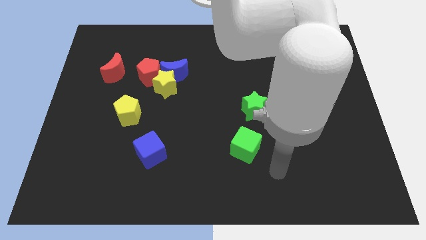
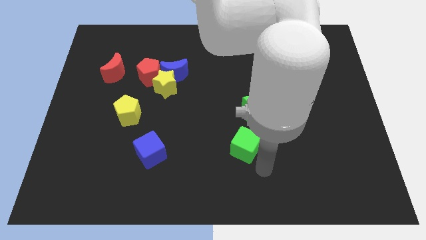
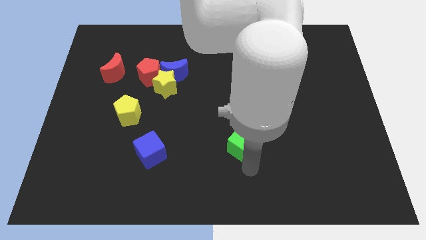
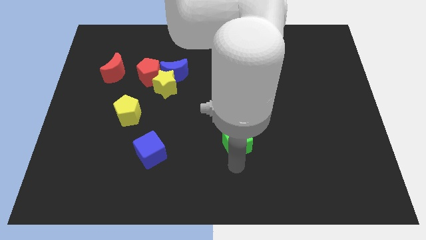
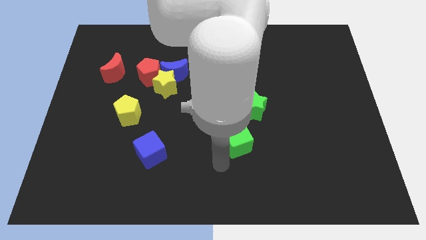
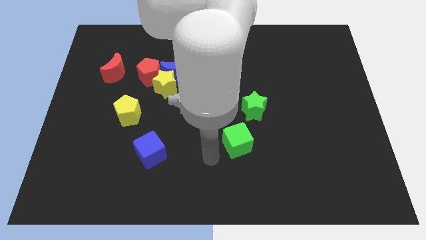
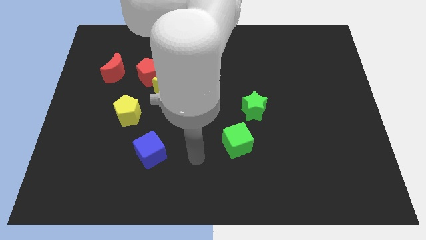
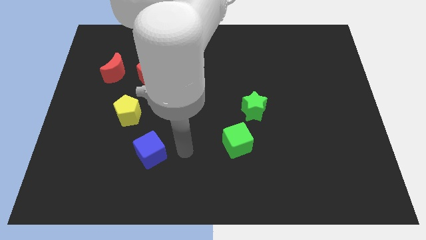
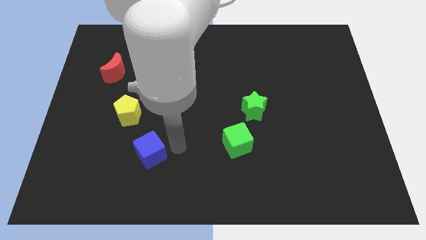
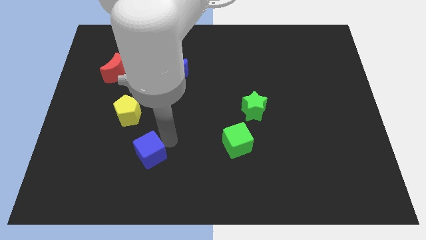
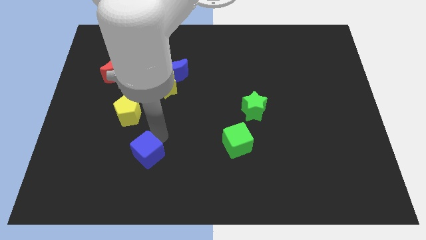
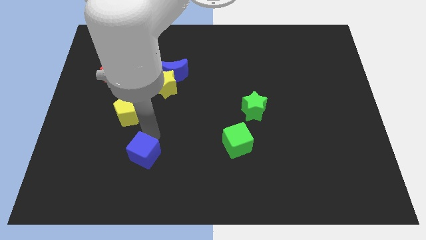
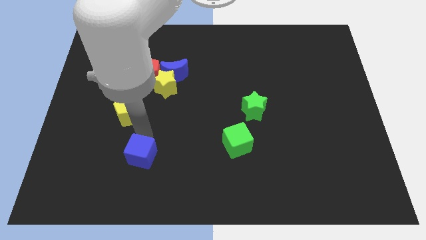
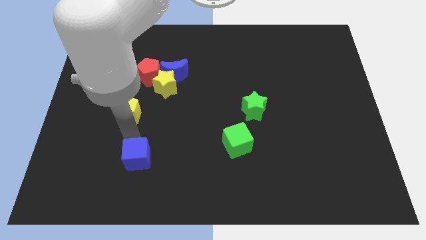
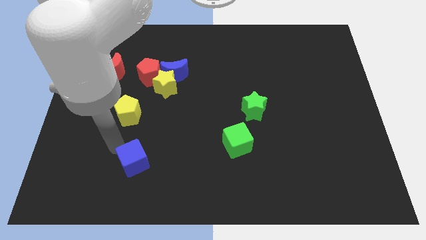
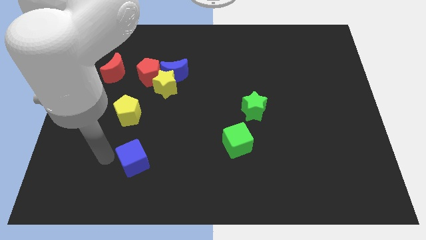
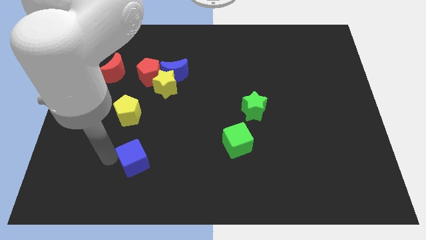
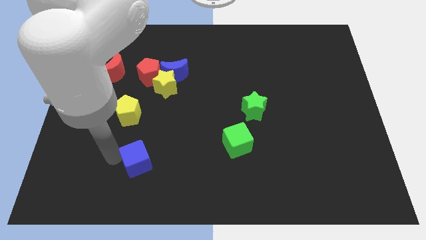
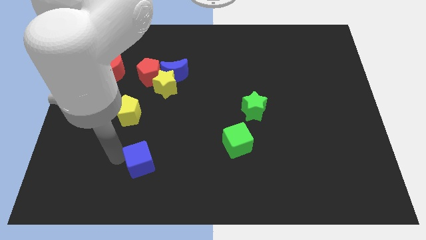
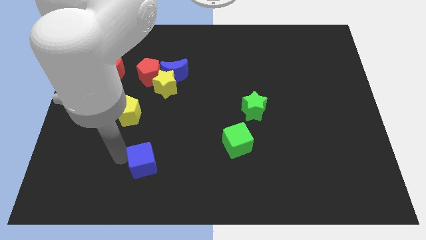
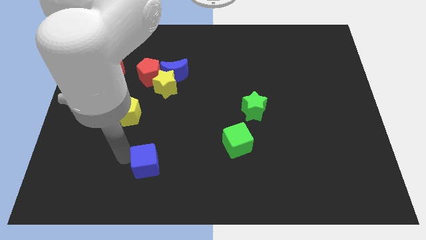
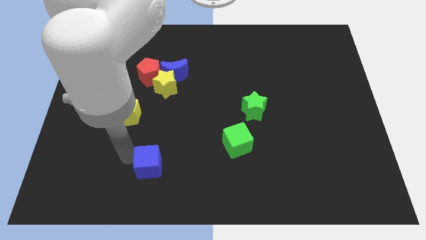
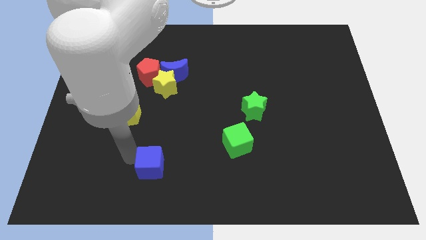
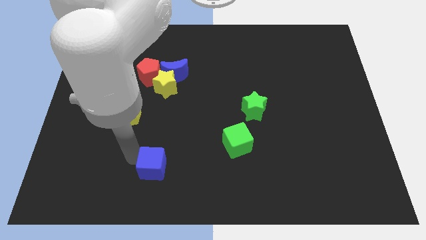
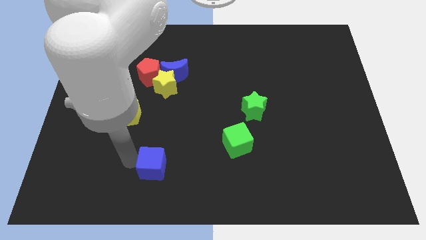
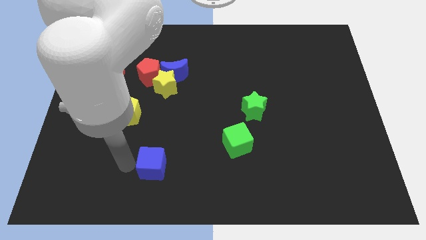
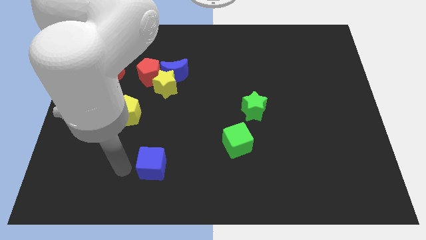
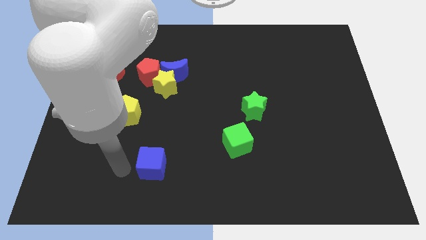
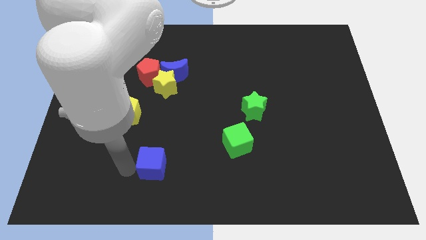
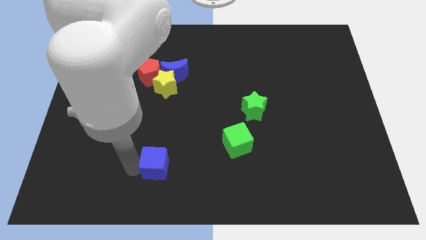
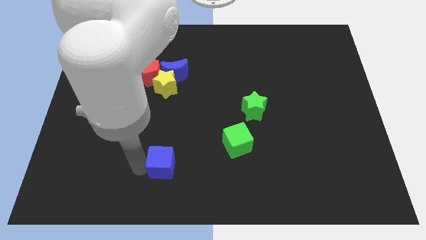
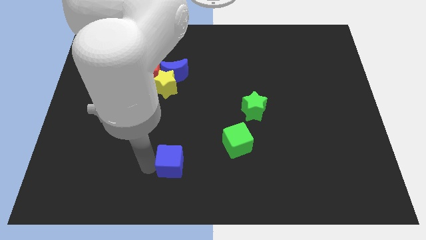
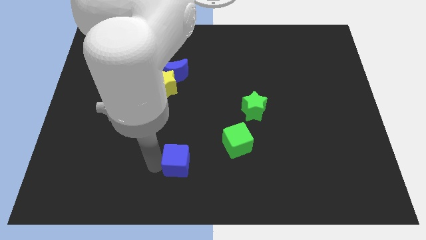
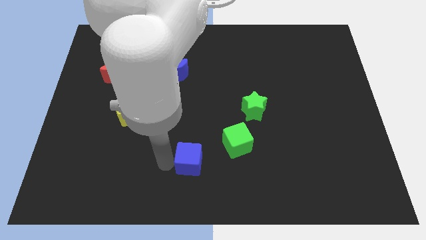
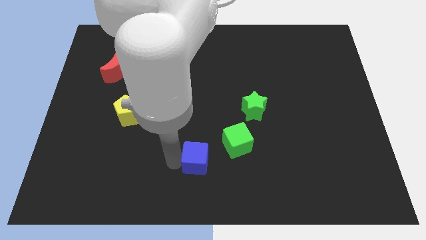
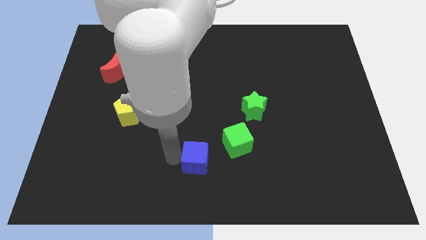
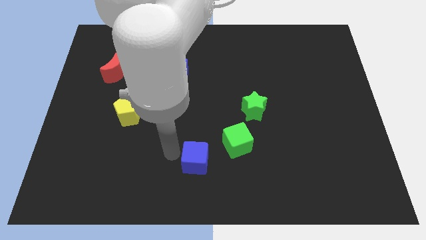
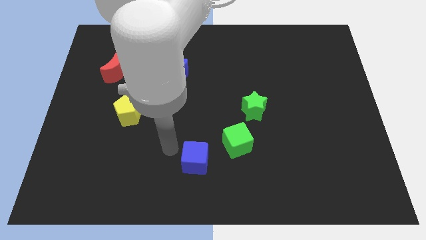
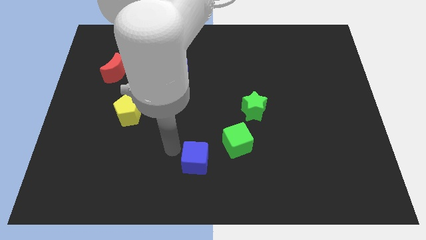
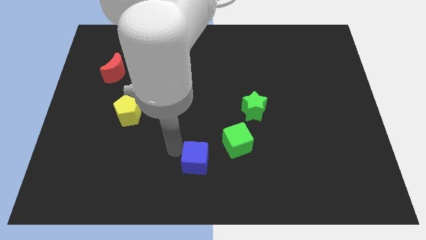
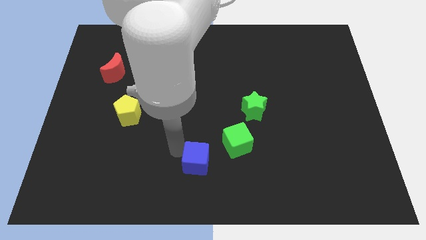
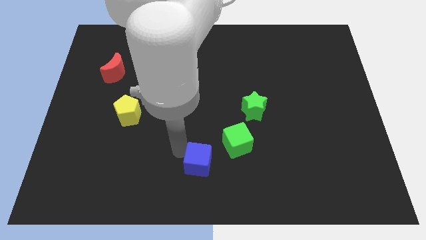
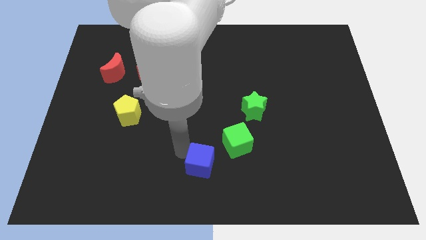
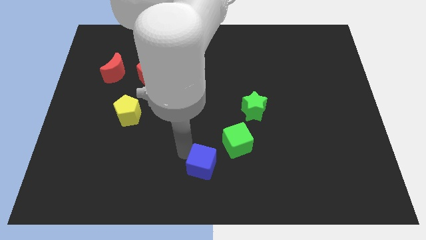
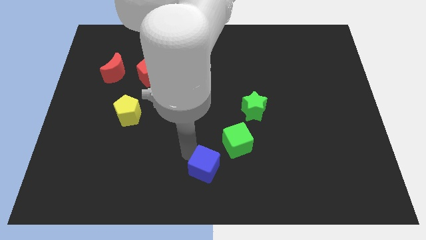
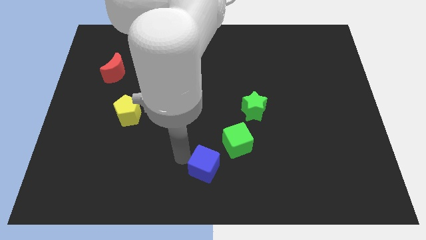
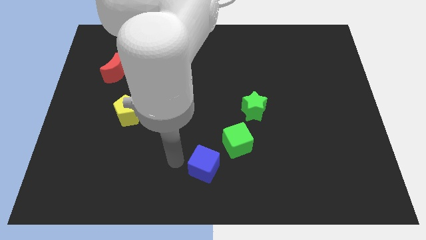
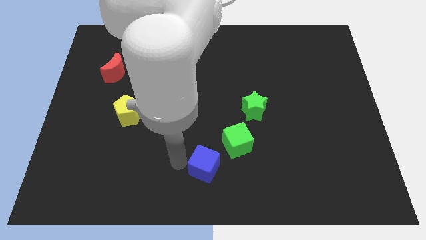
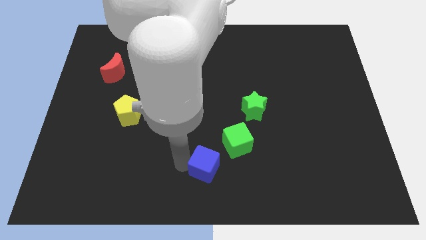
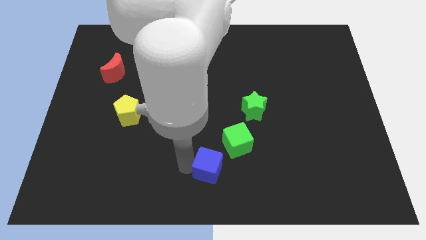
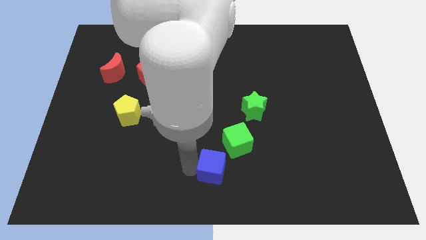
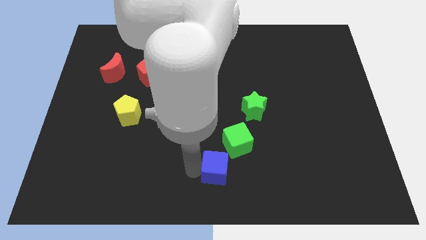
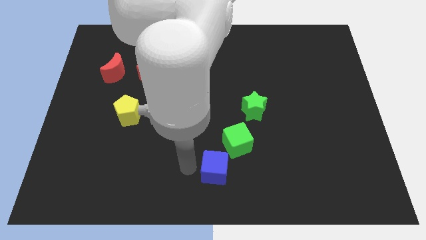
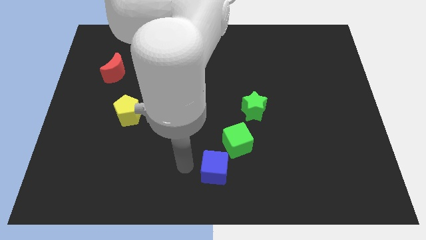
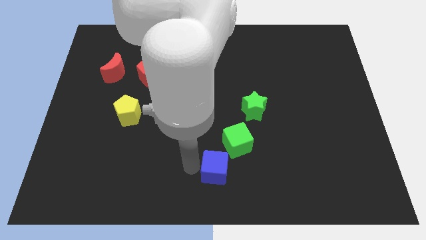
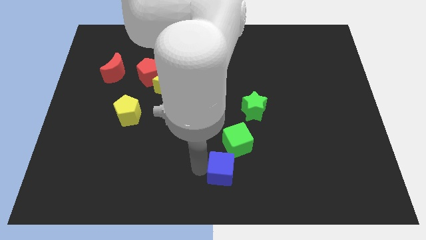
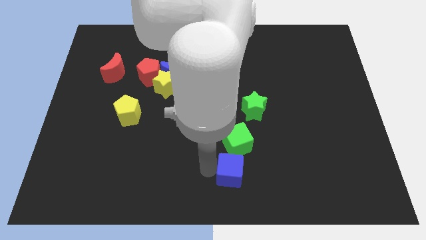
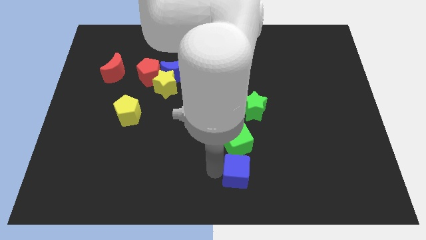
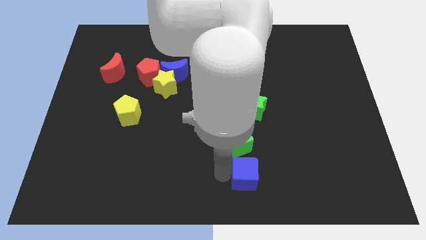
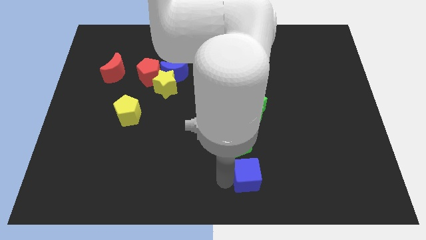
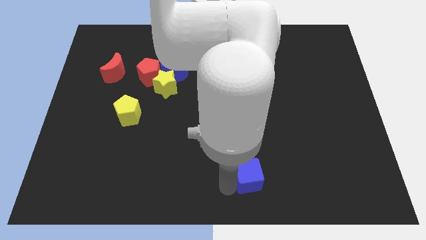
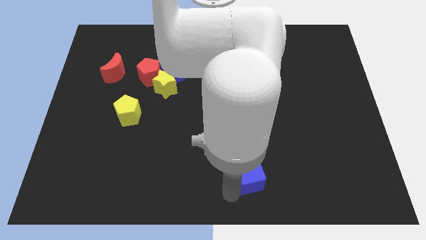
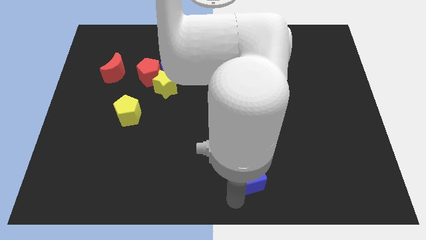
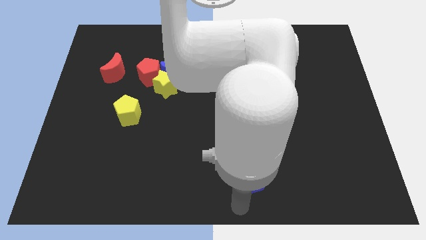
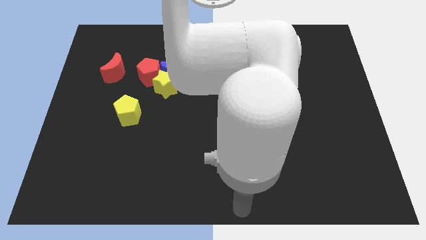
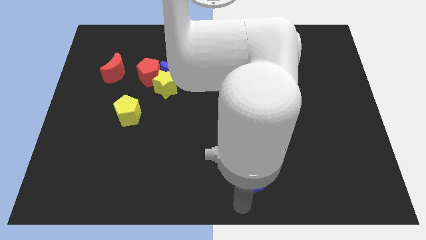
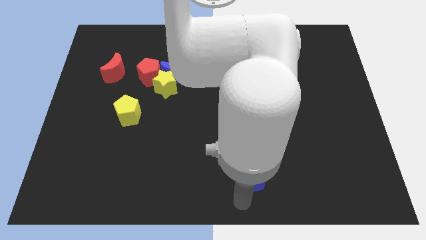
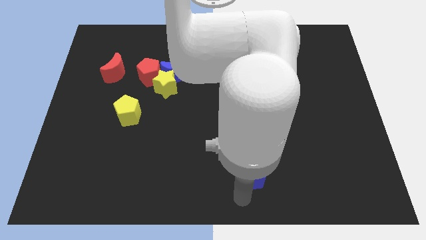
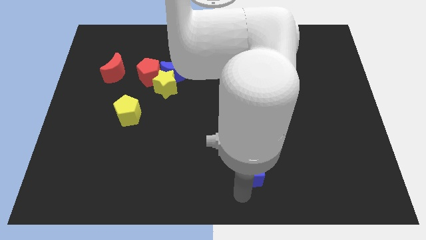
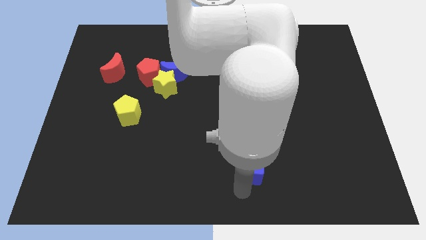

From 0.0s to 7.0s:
put the blue cube below the green star

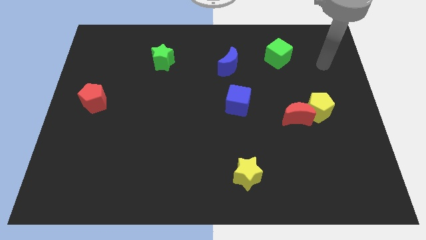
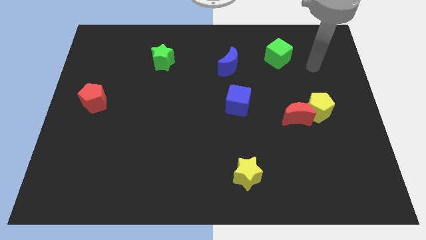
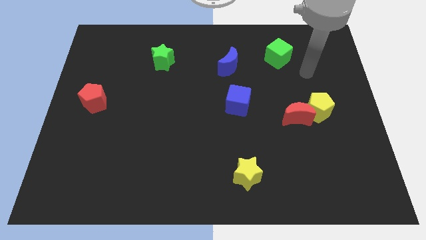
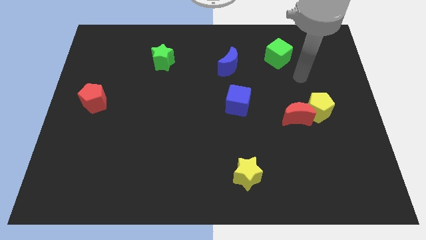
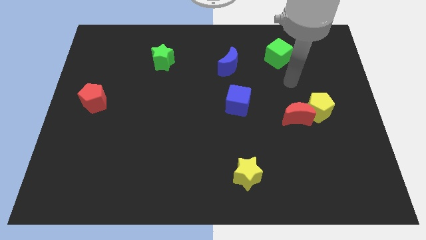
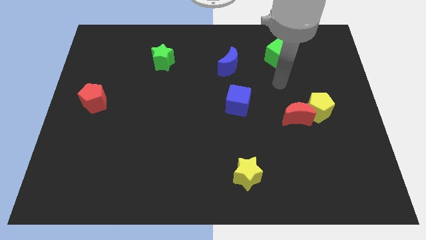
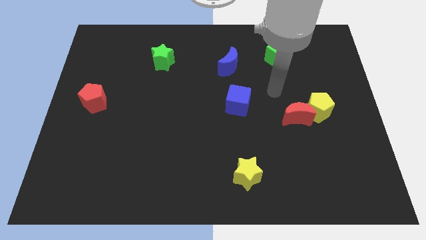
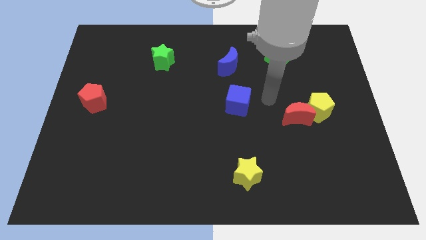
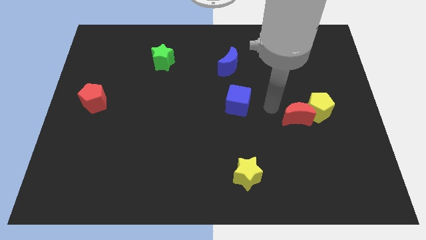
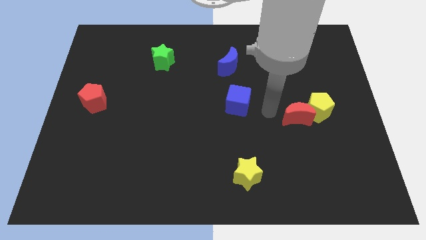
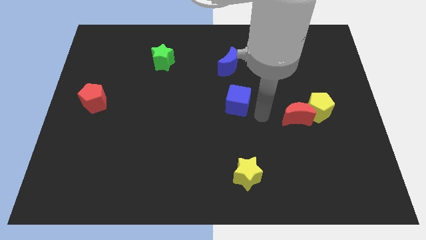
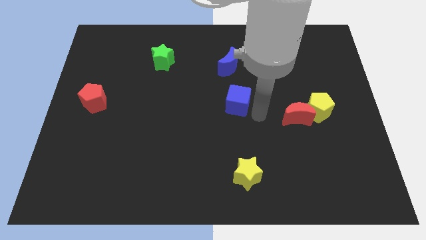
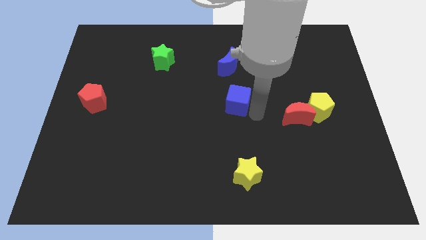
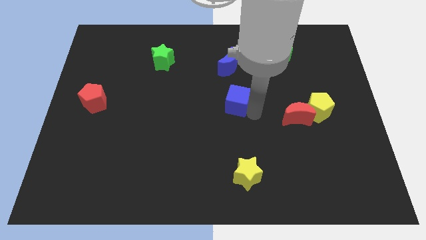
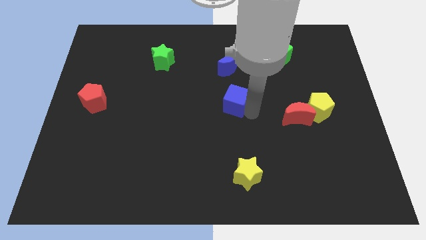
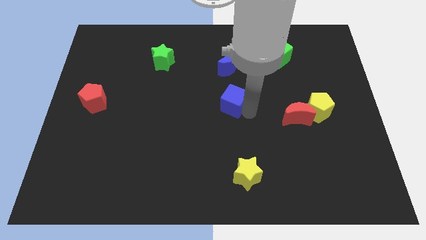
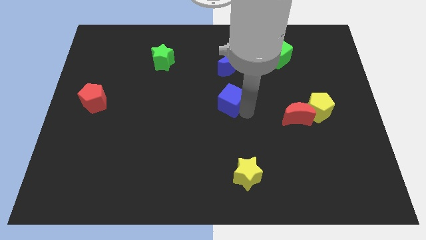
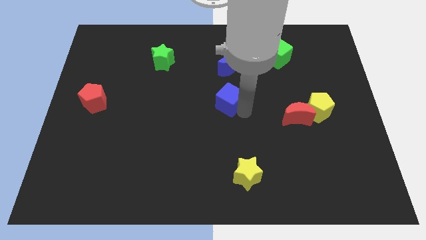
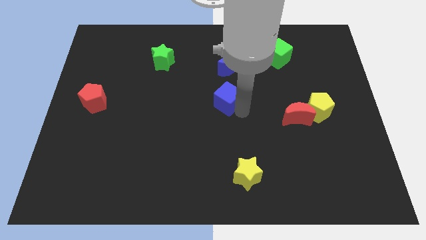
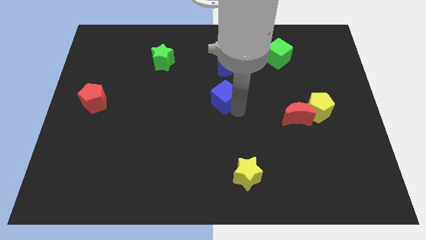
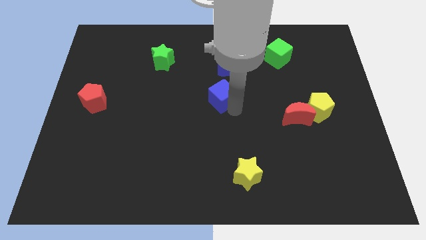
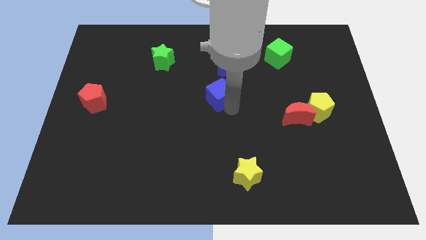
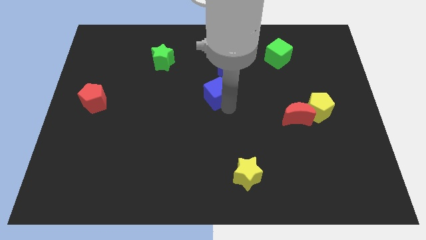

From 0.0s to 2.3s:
push the blue cube to the bottom left of the blue moon
